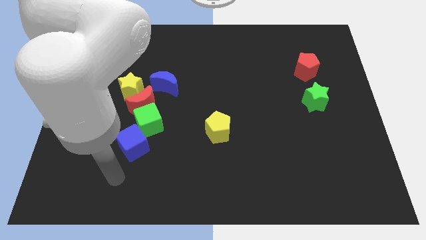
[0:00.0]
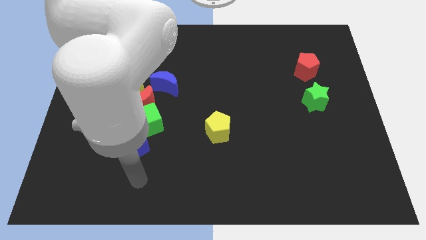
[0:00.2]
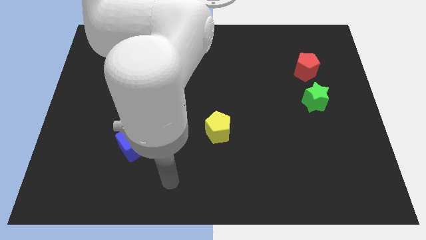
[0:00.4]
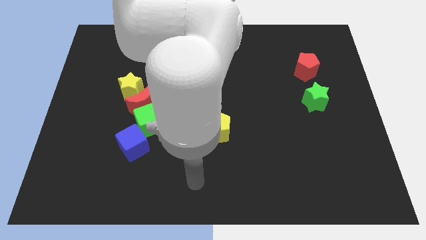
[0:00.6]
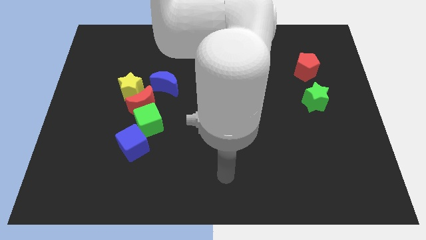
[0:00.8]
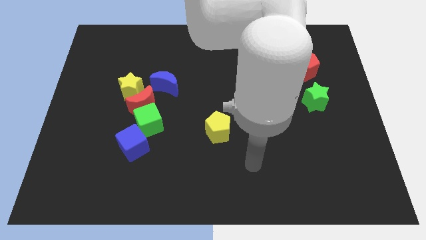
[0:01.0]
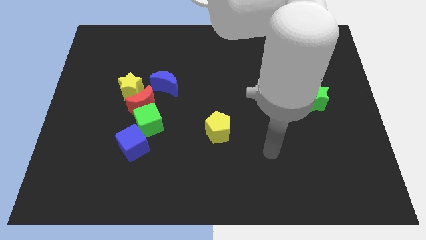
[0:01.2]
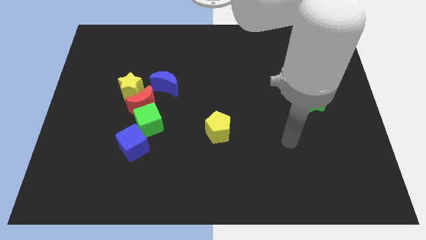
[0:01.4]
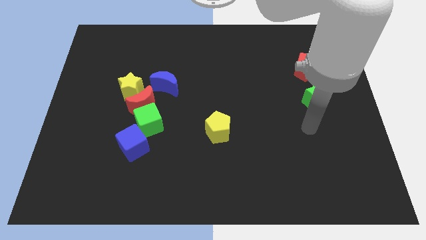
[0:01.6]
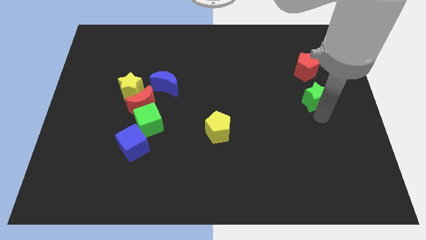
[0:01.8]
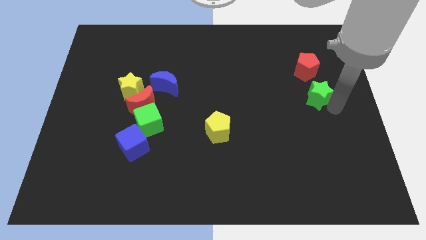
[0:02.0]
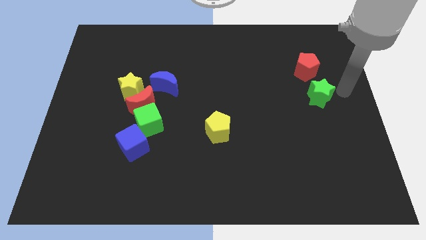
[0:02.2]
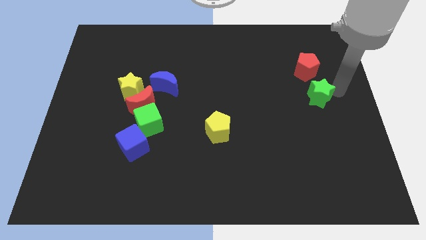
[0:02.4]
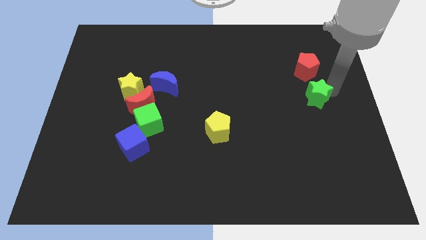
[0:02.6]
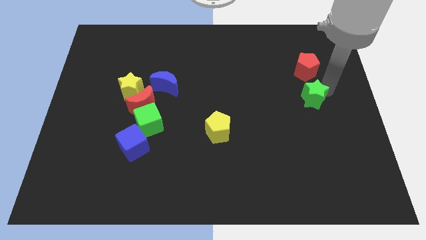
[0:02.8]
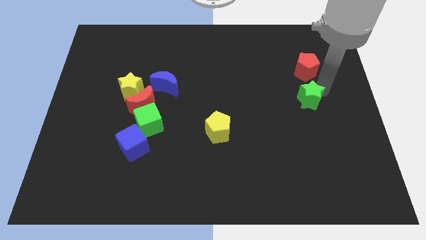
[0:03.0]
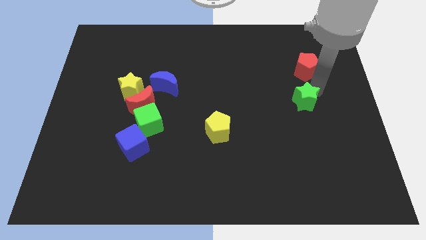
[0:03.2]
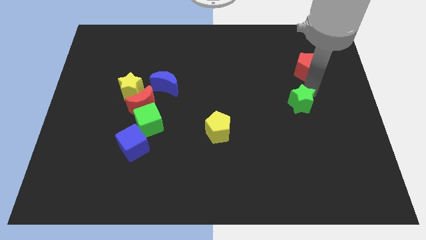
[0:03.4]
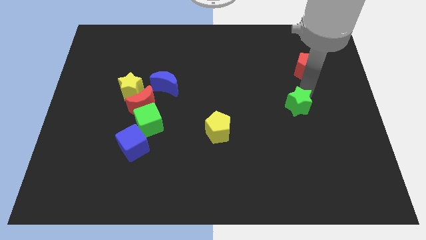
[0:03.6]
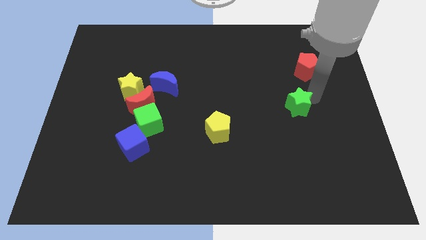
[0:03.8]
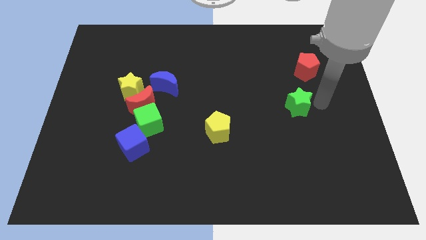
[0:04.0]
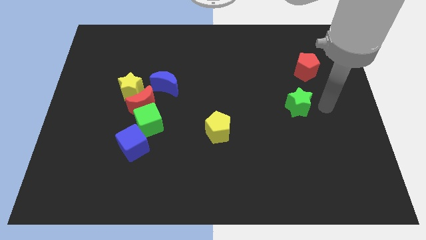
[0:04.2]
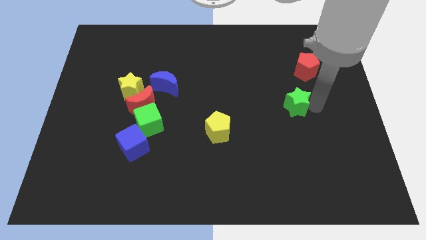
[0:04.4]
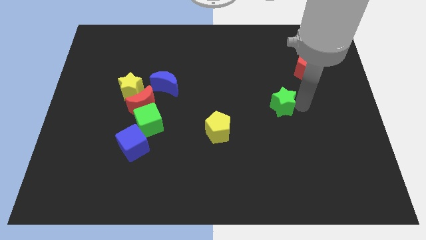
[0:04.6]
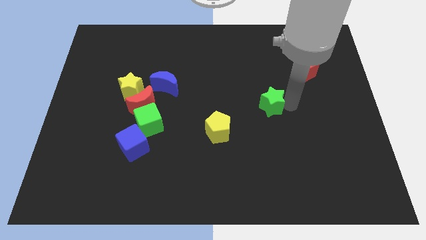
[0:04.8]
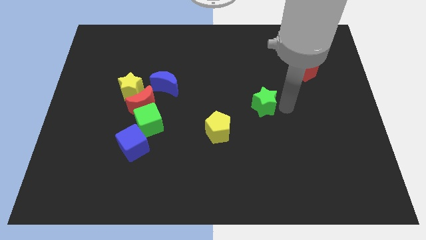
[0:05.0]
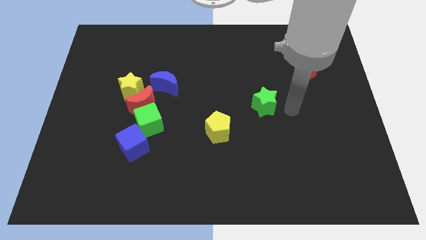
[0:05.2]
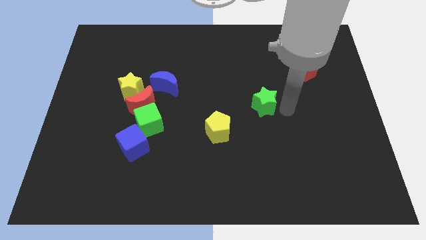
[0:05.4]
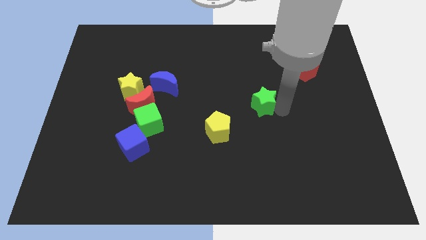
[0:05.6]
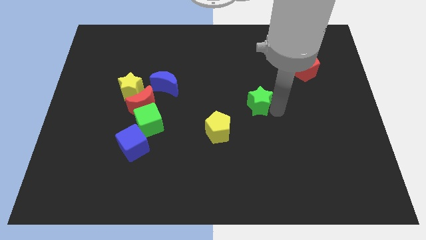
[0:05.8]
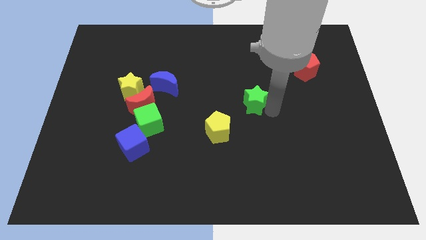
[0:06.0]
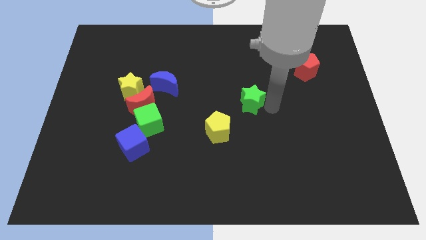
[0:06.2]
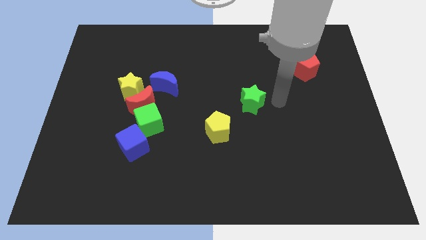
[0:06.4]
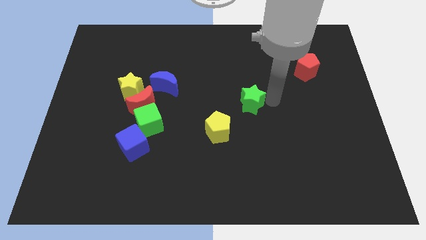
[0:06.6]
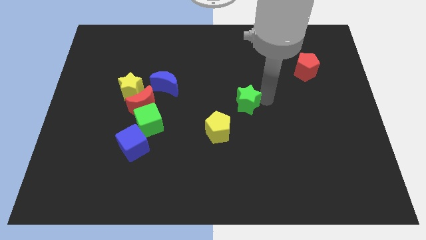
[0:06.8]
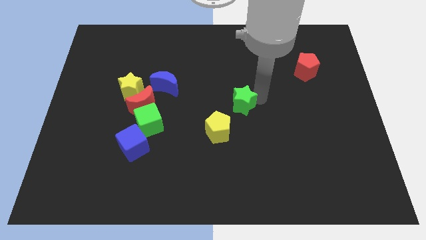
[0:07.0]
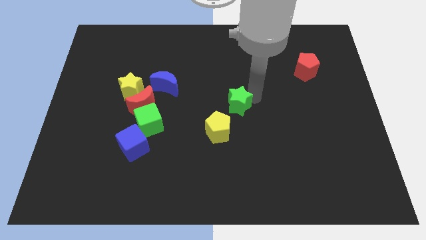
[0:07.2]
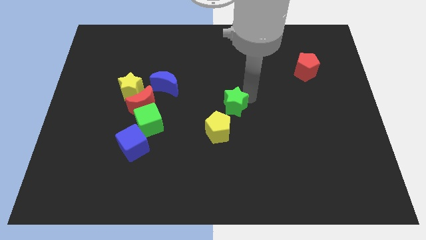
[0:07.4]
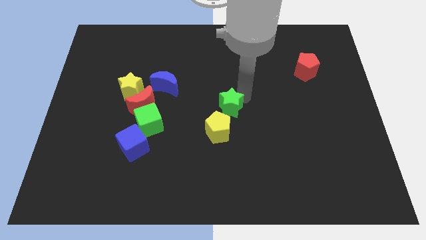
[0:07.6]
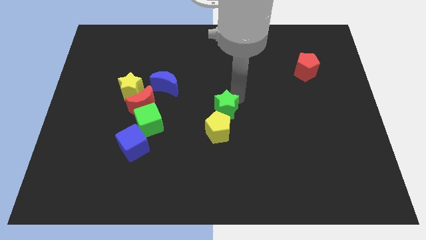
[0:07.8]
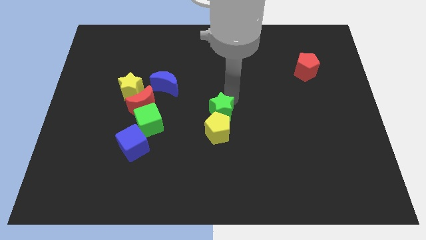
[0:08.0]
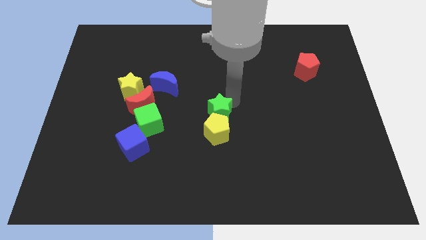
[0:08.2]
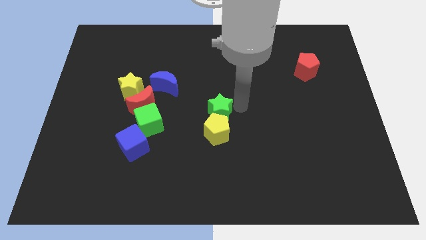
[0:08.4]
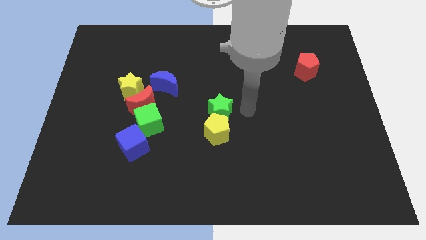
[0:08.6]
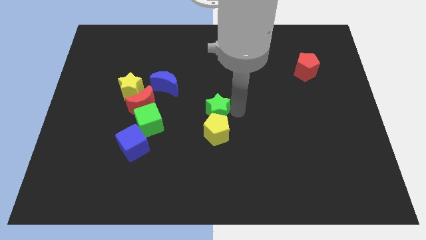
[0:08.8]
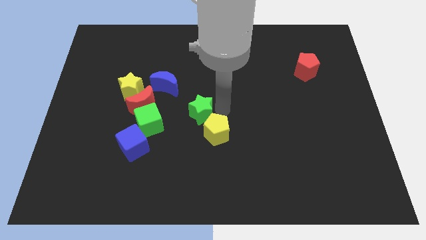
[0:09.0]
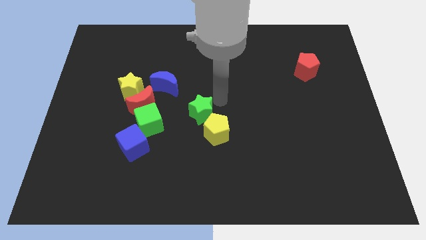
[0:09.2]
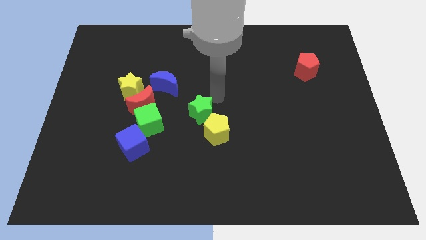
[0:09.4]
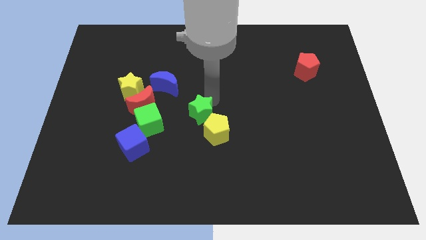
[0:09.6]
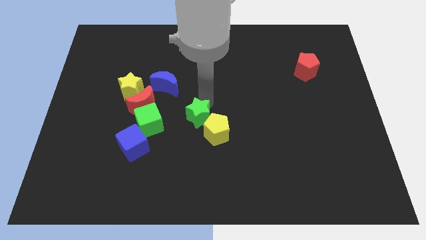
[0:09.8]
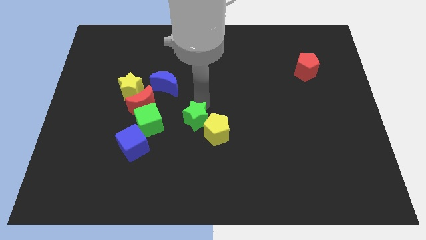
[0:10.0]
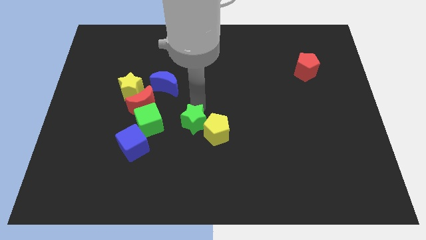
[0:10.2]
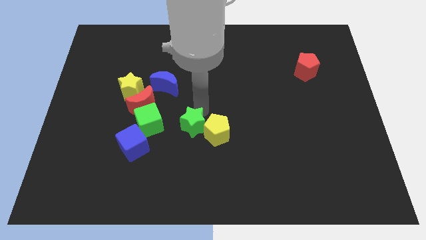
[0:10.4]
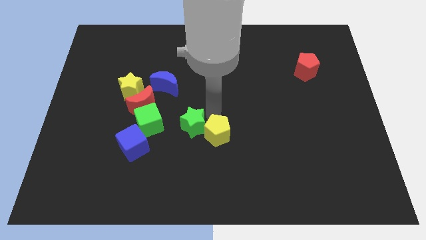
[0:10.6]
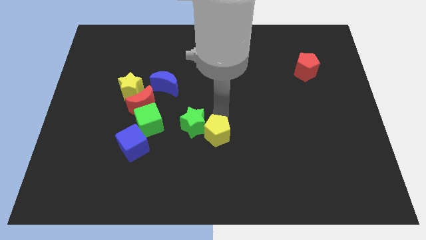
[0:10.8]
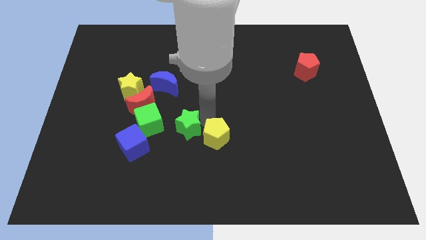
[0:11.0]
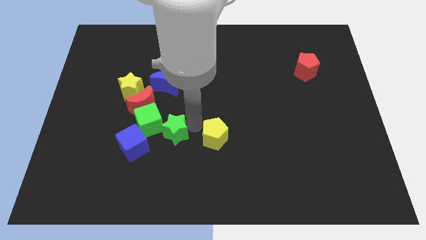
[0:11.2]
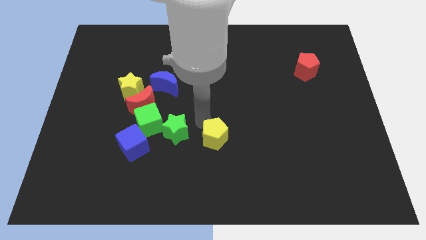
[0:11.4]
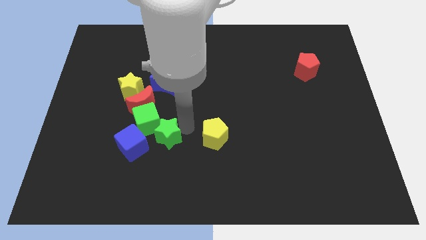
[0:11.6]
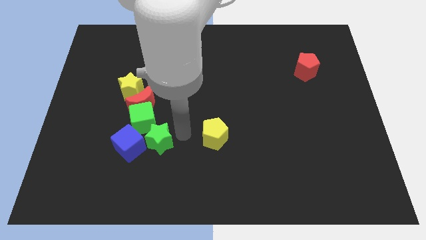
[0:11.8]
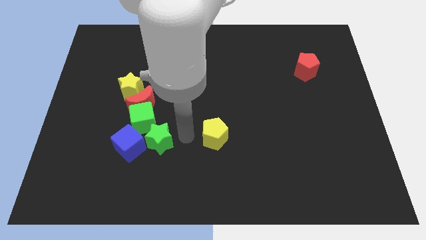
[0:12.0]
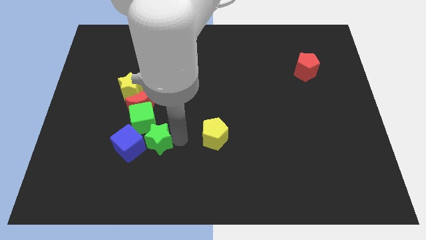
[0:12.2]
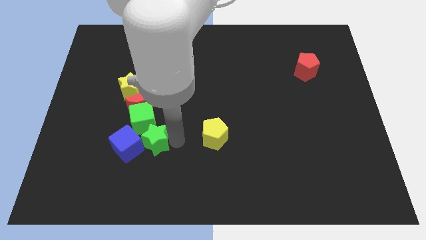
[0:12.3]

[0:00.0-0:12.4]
slide the green star to the blue cube

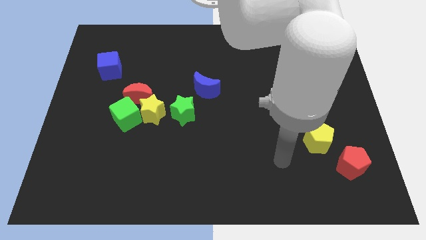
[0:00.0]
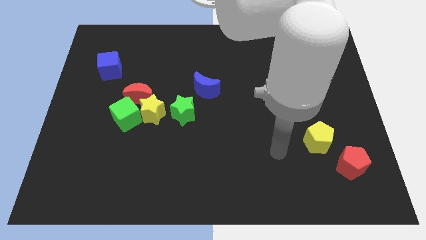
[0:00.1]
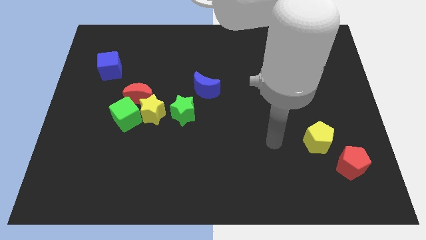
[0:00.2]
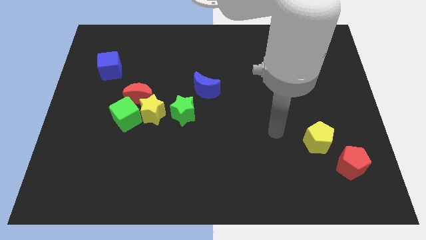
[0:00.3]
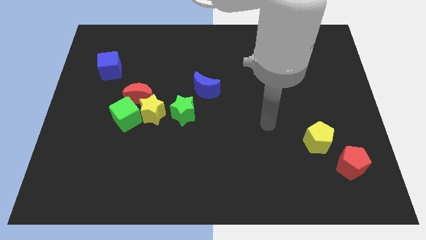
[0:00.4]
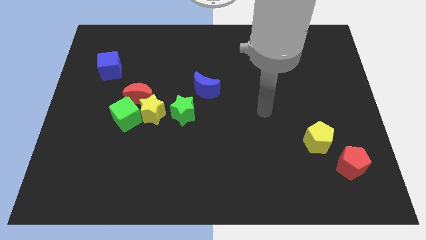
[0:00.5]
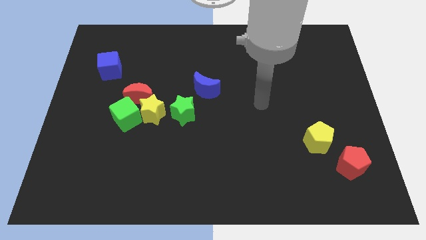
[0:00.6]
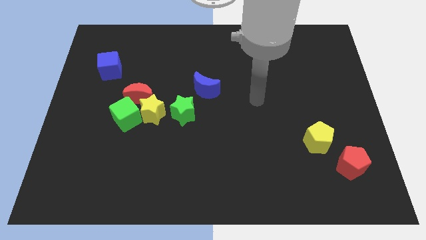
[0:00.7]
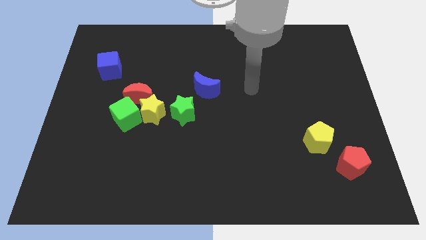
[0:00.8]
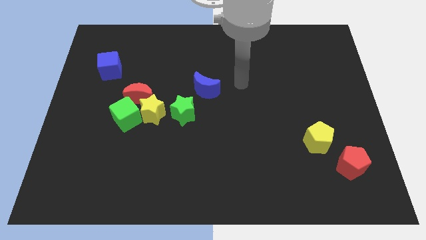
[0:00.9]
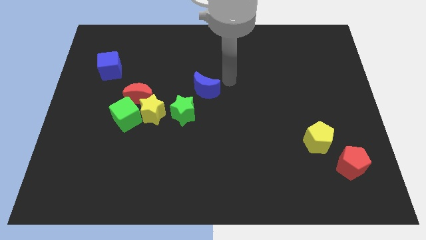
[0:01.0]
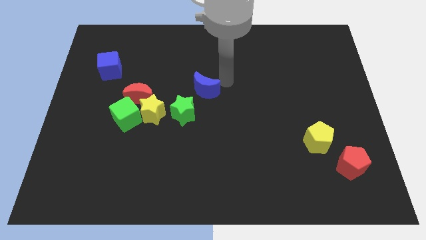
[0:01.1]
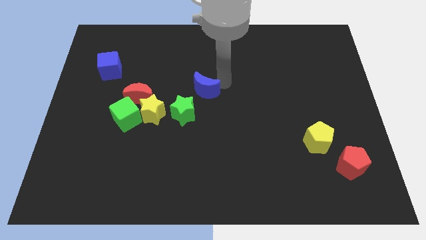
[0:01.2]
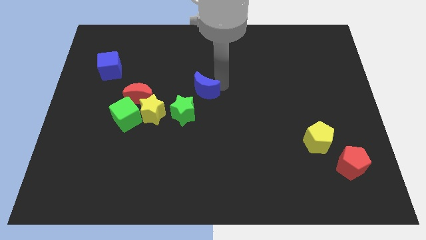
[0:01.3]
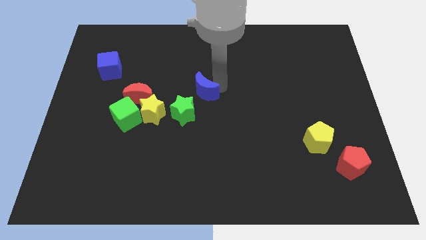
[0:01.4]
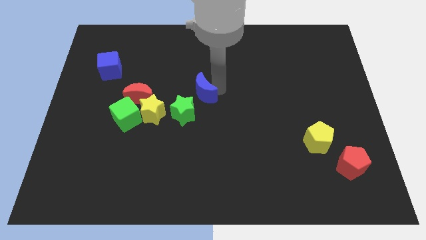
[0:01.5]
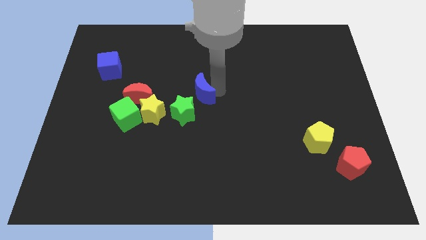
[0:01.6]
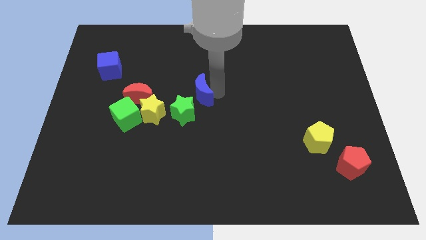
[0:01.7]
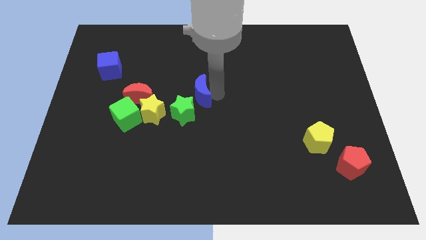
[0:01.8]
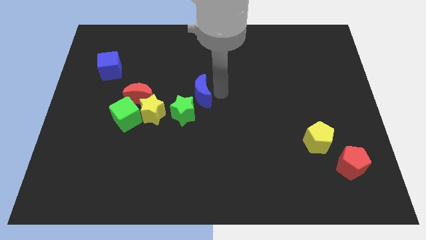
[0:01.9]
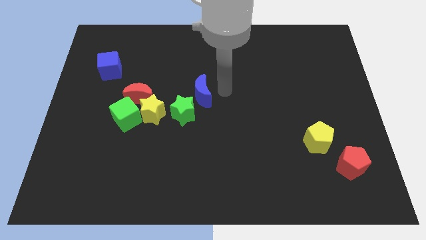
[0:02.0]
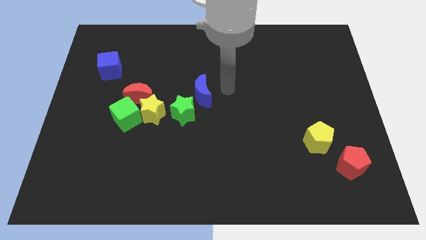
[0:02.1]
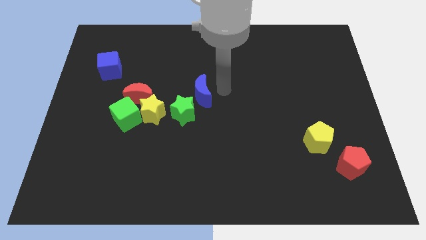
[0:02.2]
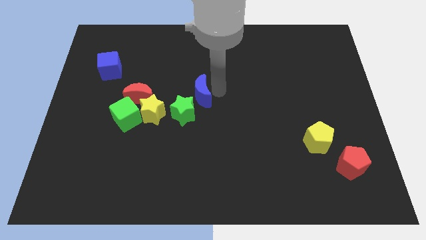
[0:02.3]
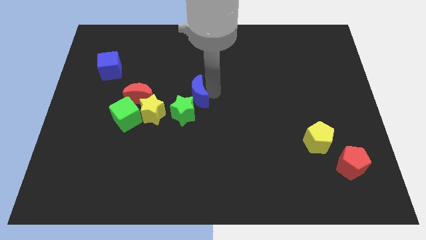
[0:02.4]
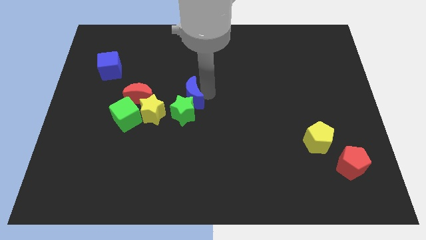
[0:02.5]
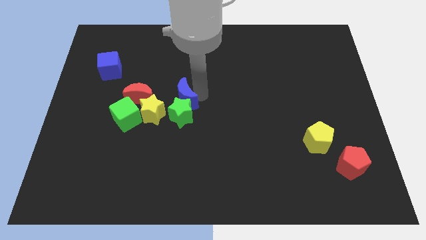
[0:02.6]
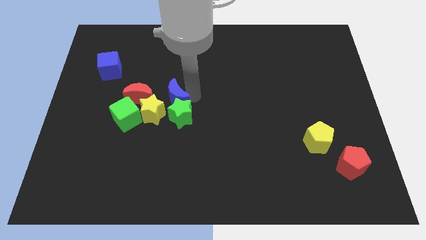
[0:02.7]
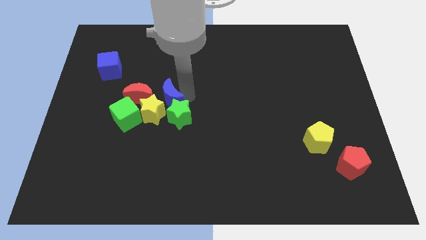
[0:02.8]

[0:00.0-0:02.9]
put the blue moon close to the yellow star
